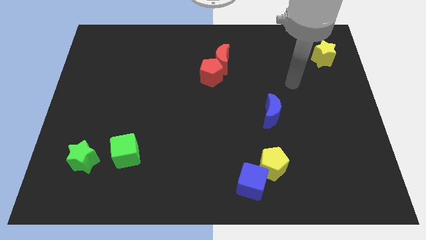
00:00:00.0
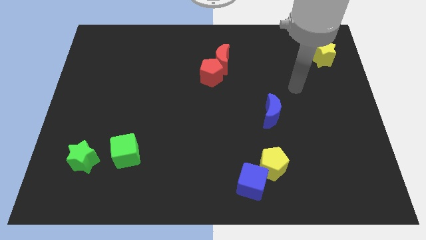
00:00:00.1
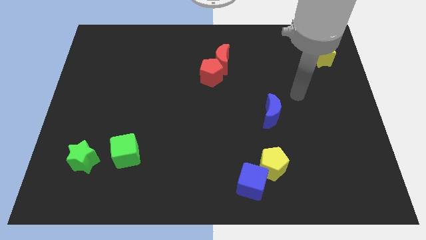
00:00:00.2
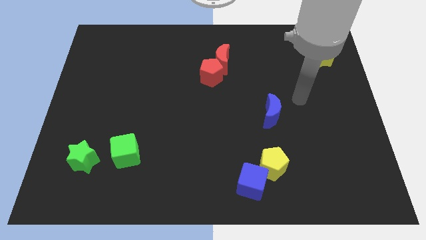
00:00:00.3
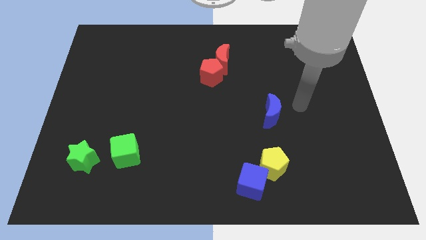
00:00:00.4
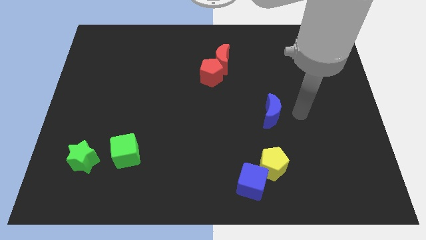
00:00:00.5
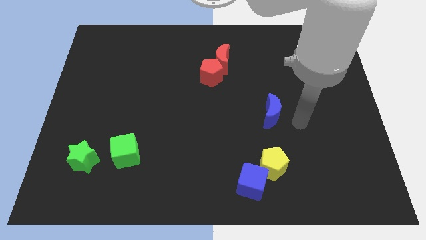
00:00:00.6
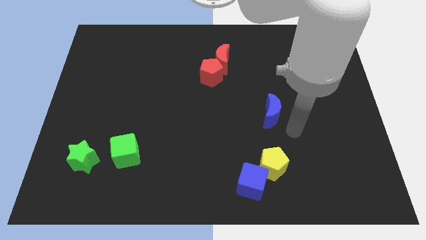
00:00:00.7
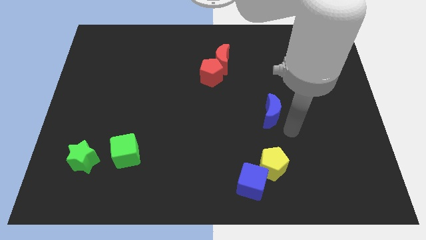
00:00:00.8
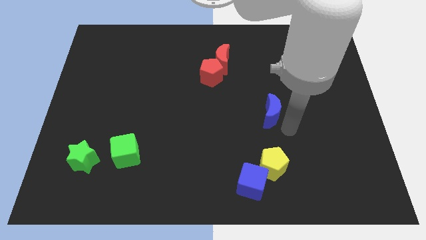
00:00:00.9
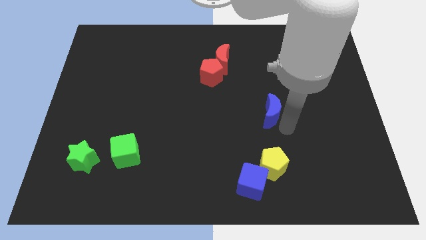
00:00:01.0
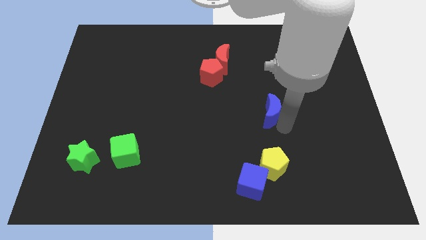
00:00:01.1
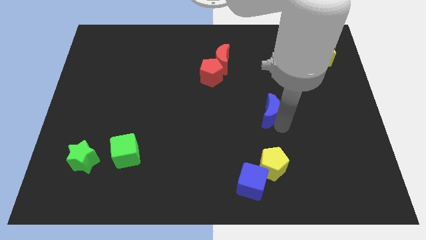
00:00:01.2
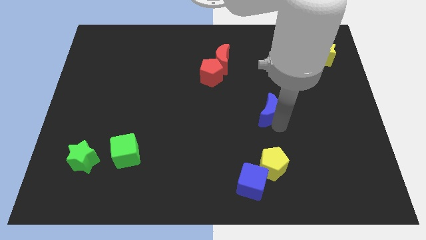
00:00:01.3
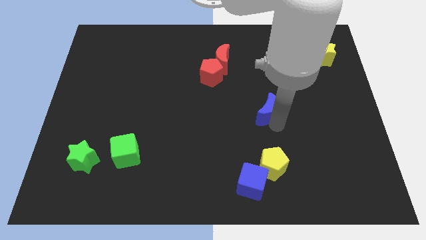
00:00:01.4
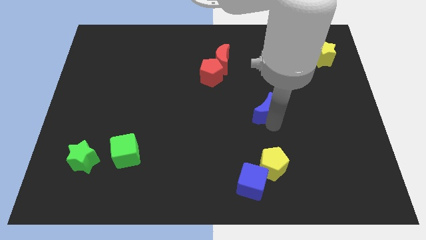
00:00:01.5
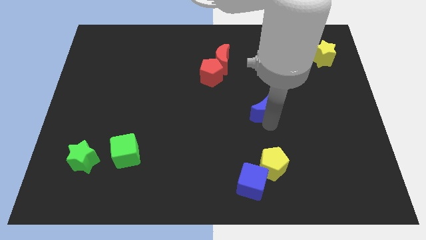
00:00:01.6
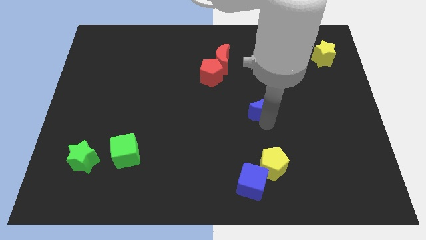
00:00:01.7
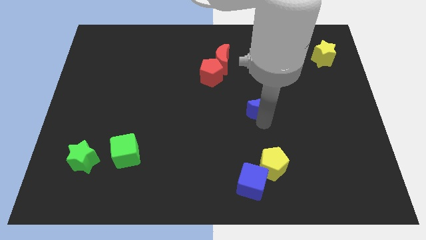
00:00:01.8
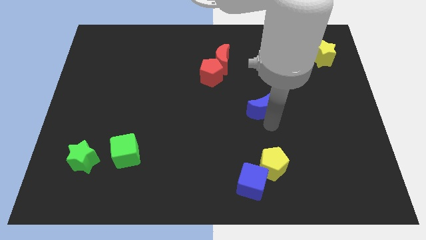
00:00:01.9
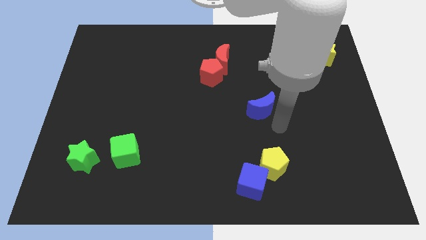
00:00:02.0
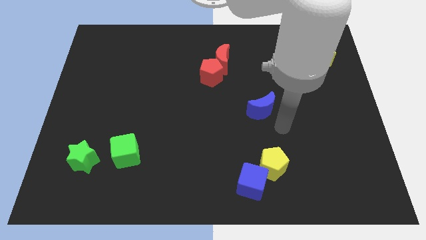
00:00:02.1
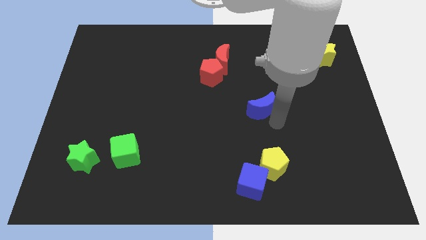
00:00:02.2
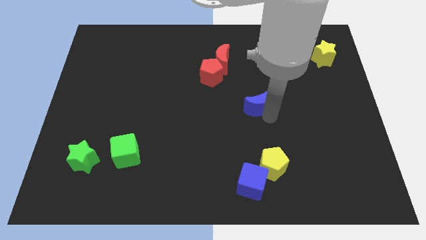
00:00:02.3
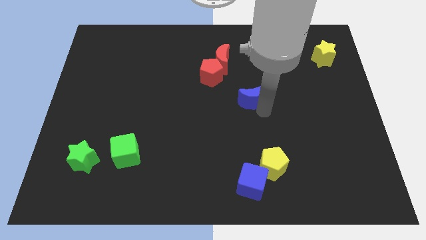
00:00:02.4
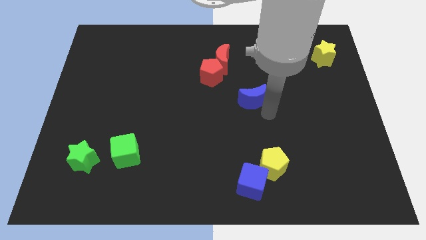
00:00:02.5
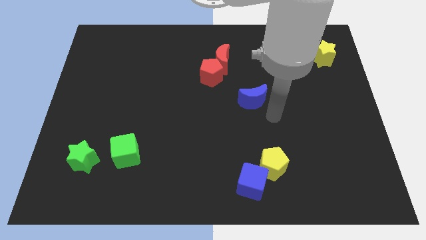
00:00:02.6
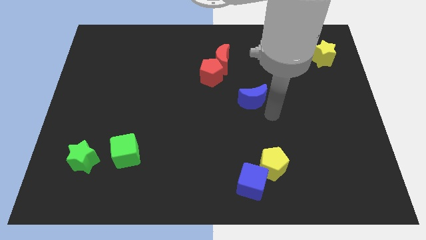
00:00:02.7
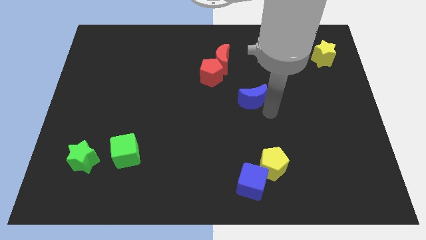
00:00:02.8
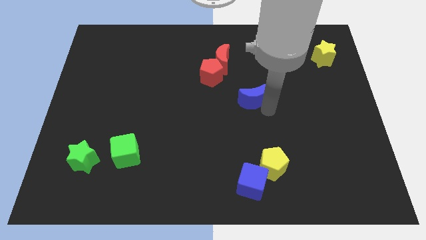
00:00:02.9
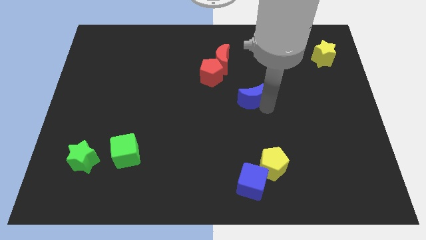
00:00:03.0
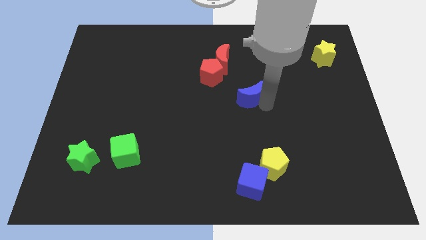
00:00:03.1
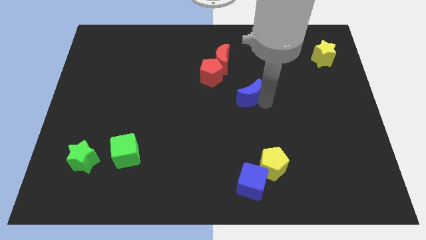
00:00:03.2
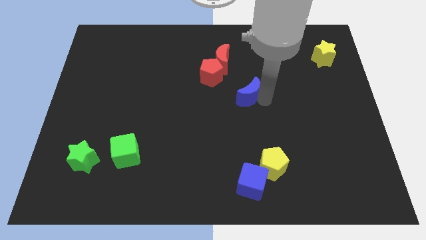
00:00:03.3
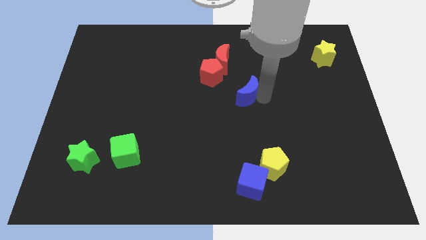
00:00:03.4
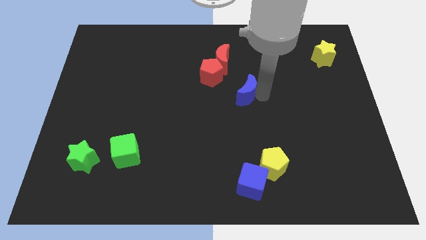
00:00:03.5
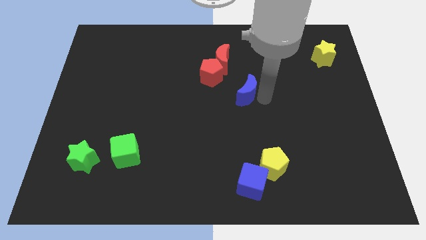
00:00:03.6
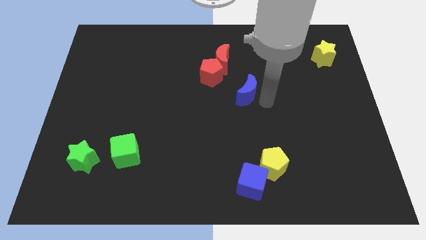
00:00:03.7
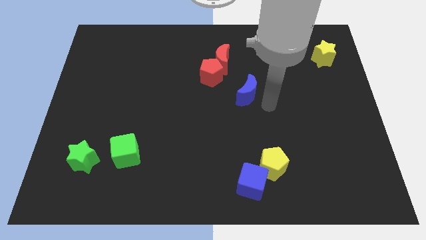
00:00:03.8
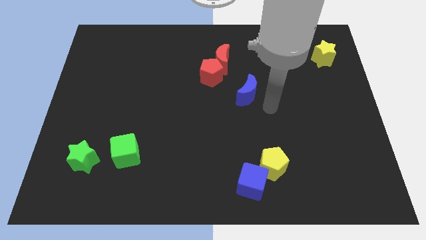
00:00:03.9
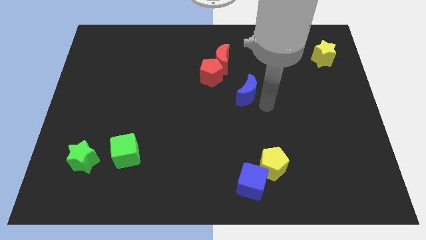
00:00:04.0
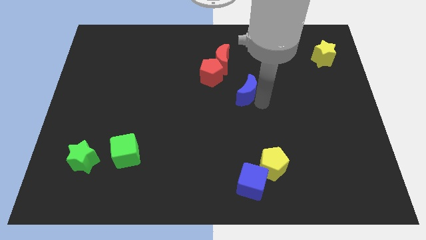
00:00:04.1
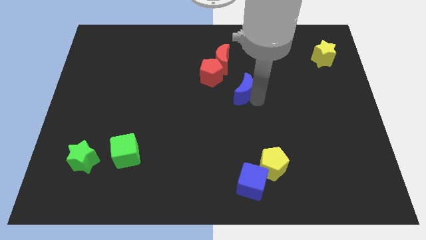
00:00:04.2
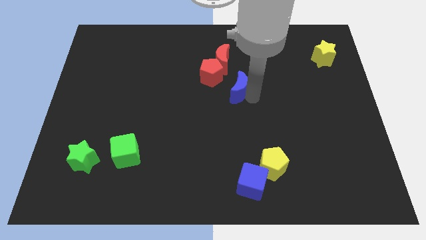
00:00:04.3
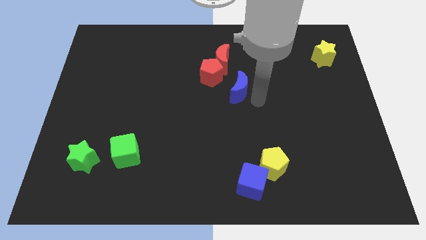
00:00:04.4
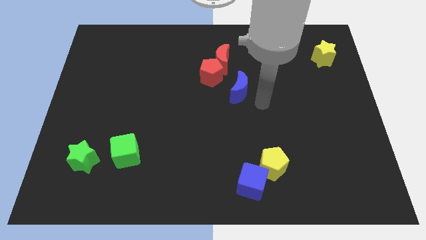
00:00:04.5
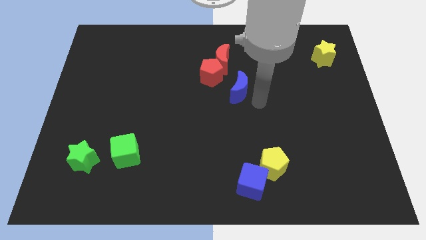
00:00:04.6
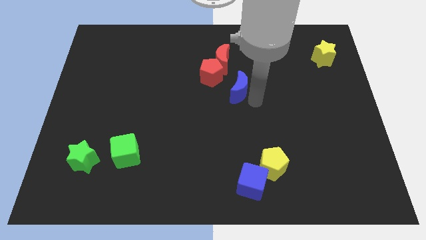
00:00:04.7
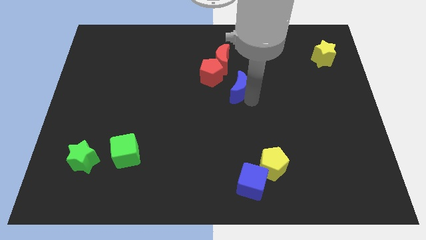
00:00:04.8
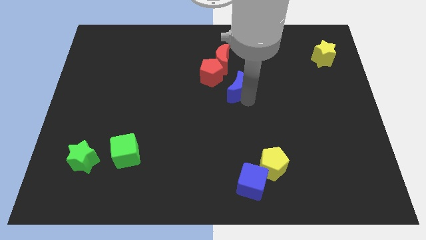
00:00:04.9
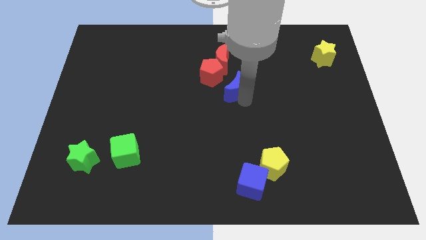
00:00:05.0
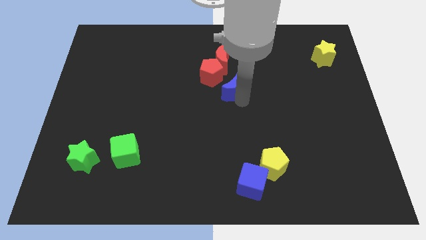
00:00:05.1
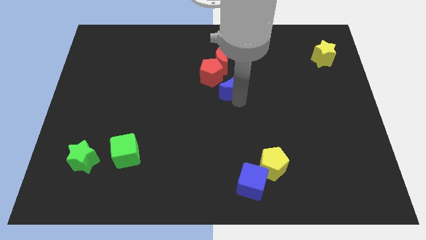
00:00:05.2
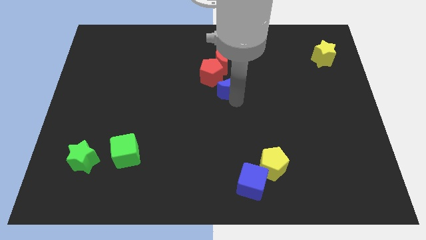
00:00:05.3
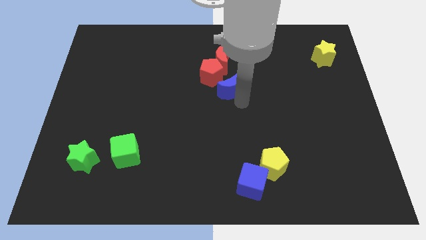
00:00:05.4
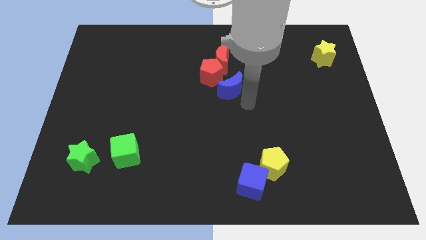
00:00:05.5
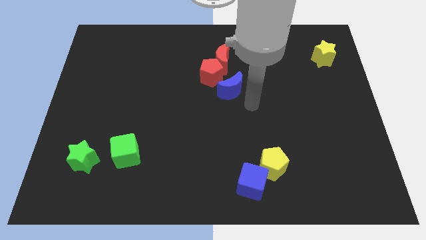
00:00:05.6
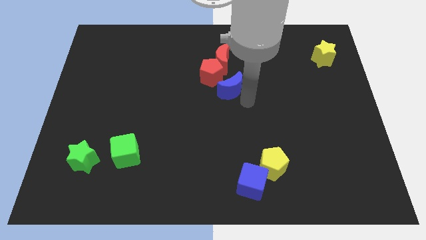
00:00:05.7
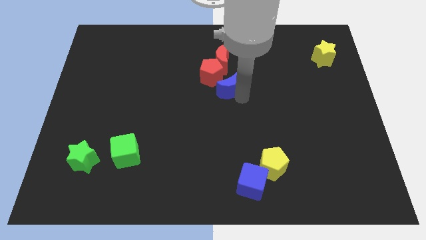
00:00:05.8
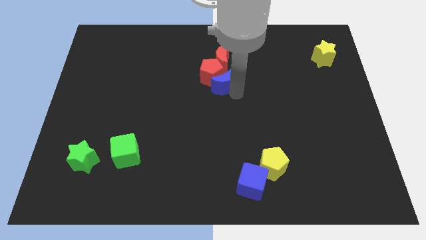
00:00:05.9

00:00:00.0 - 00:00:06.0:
move the blue moon close to the red pentagon

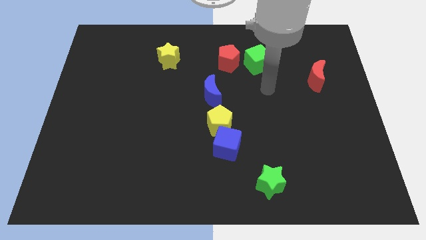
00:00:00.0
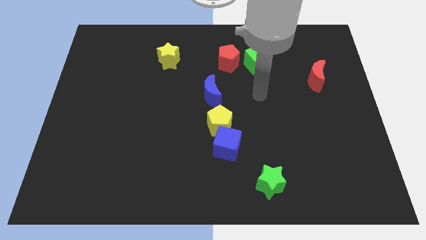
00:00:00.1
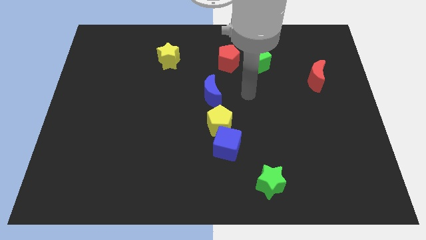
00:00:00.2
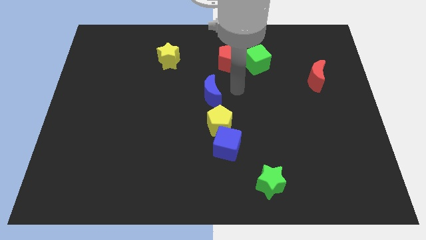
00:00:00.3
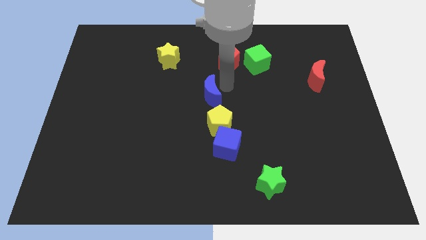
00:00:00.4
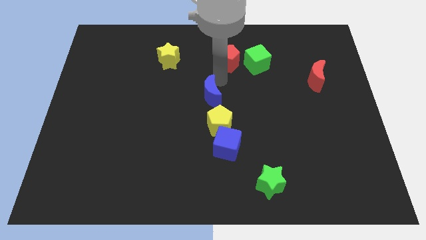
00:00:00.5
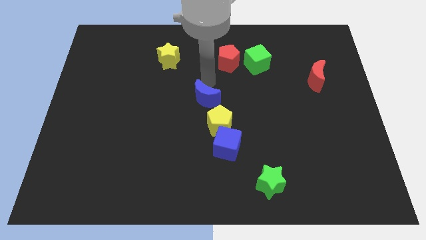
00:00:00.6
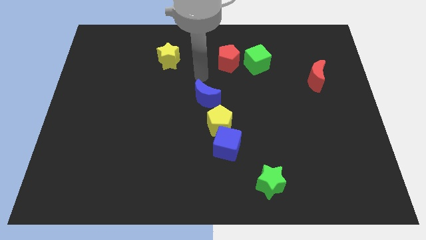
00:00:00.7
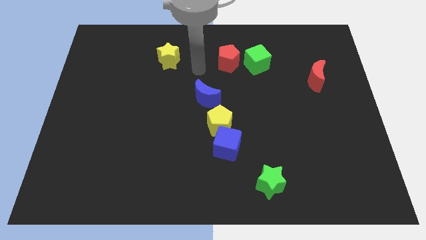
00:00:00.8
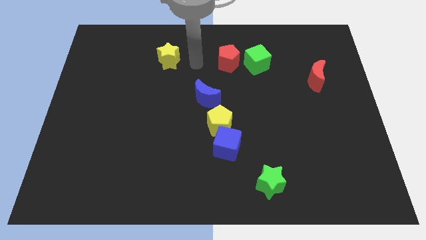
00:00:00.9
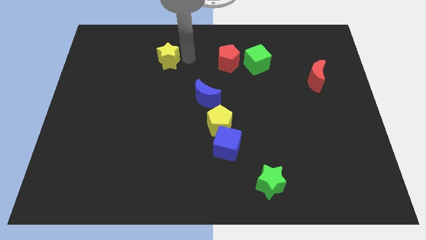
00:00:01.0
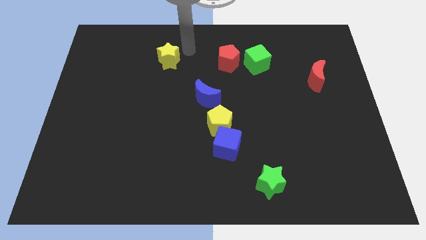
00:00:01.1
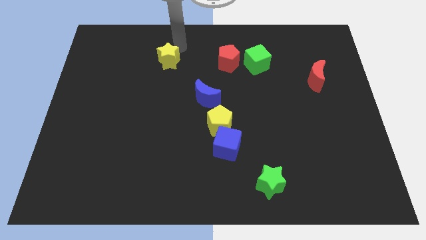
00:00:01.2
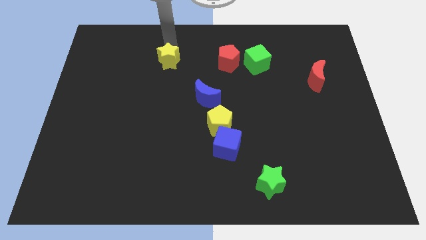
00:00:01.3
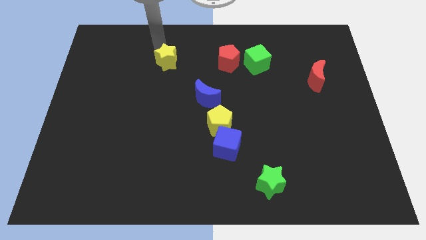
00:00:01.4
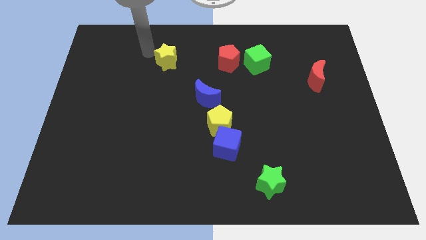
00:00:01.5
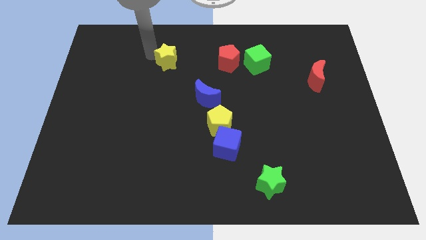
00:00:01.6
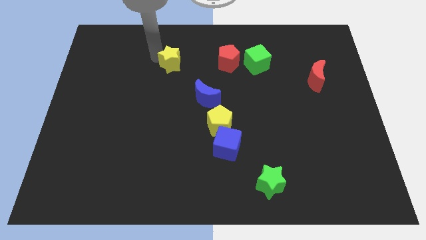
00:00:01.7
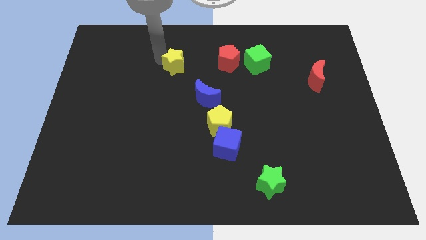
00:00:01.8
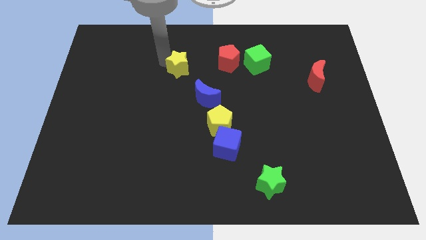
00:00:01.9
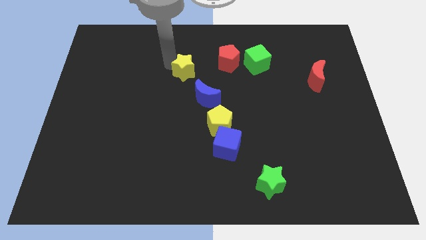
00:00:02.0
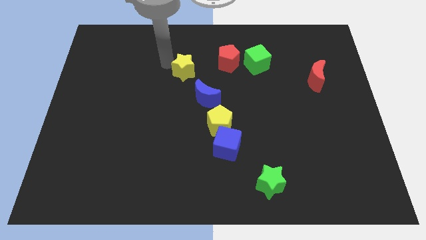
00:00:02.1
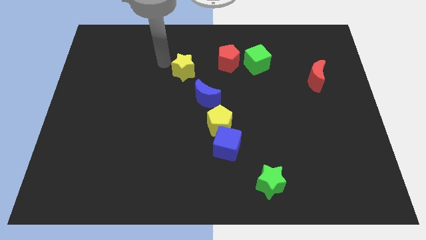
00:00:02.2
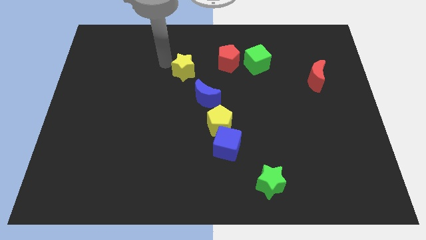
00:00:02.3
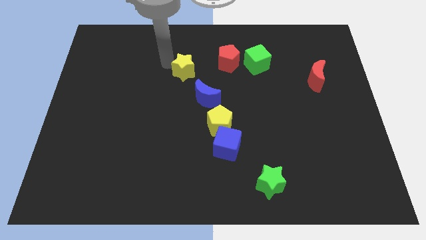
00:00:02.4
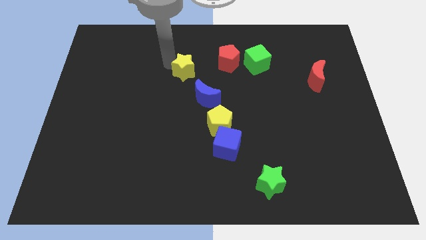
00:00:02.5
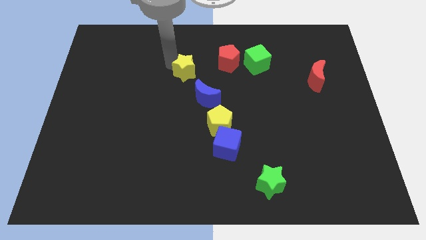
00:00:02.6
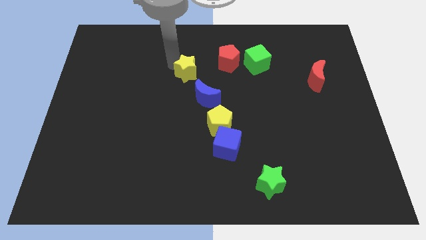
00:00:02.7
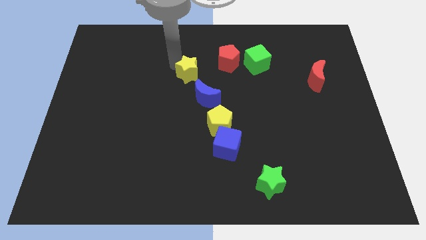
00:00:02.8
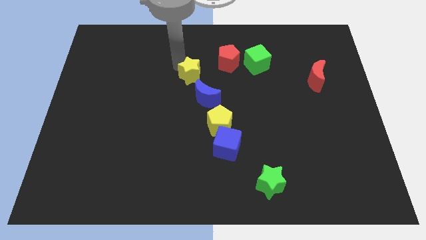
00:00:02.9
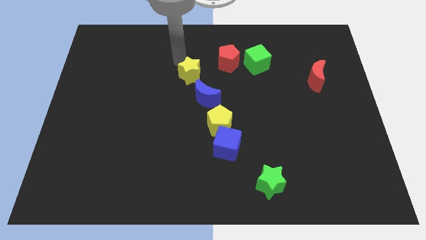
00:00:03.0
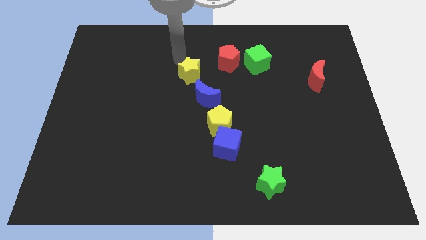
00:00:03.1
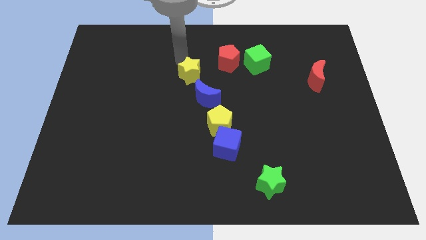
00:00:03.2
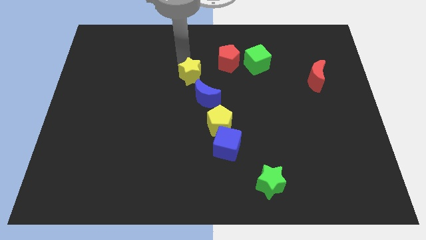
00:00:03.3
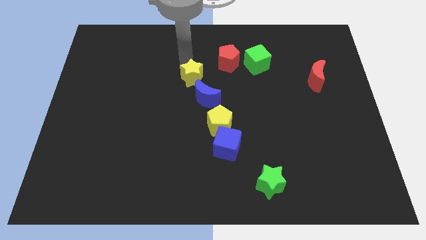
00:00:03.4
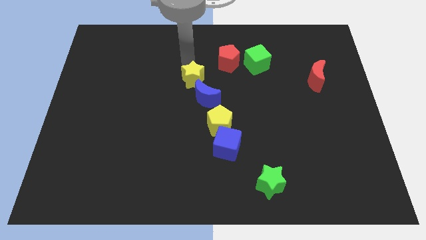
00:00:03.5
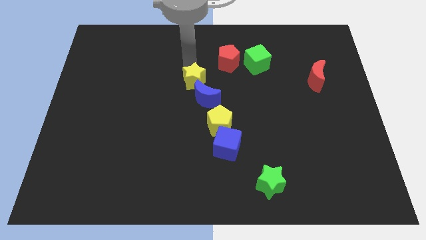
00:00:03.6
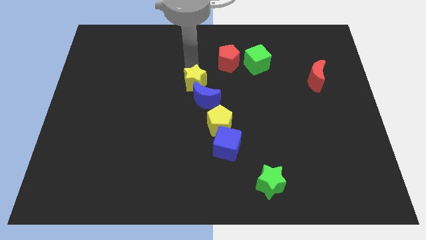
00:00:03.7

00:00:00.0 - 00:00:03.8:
push the yellow star next to the blue moon
